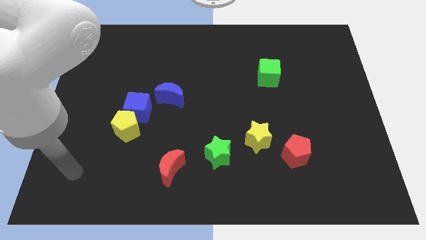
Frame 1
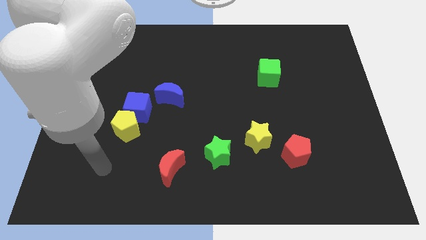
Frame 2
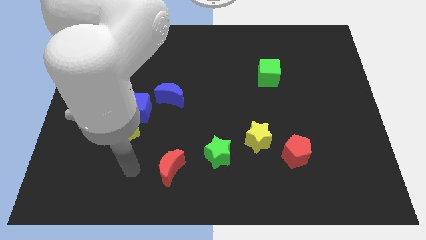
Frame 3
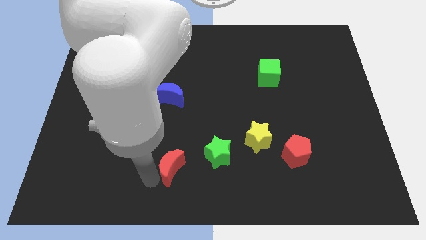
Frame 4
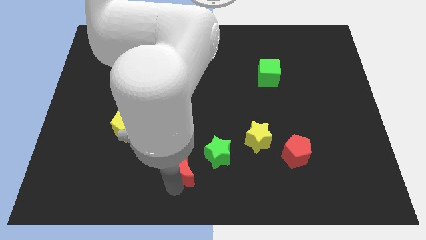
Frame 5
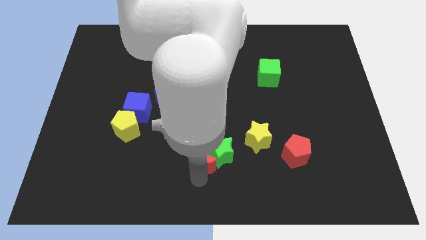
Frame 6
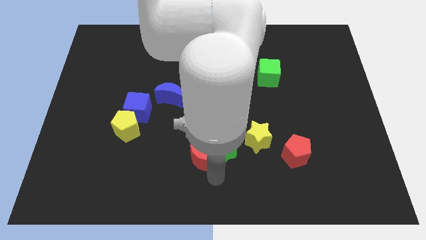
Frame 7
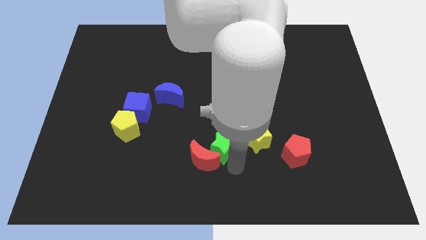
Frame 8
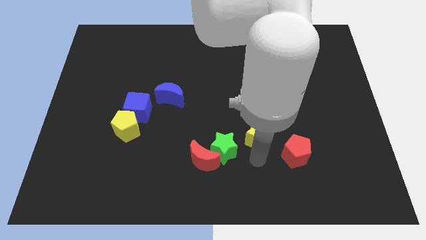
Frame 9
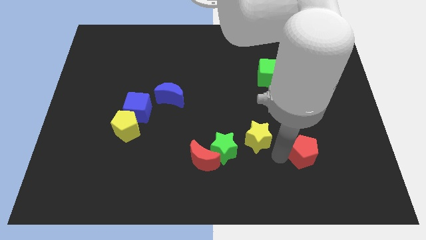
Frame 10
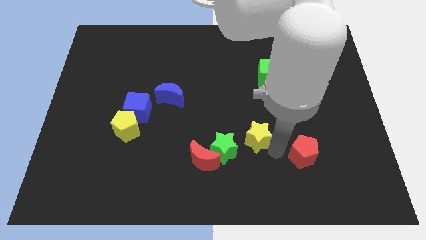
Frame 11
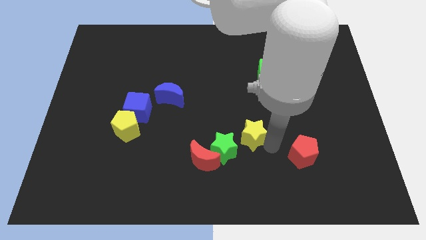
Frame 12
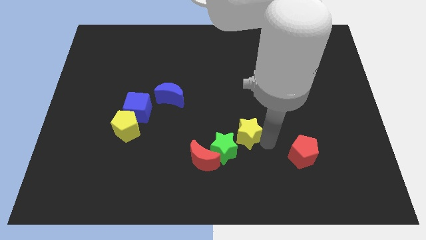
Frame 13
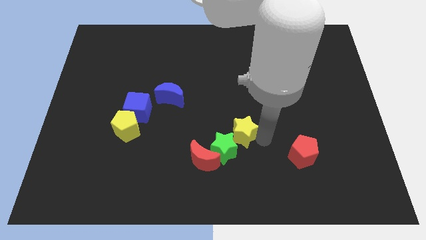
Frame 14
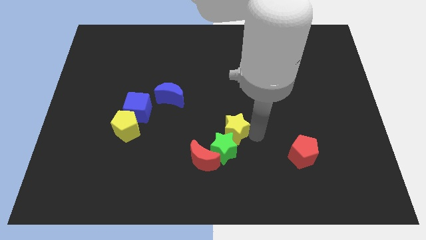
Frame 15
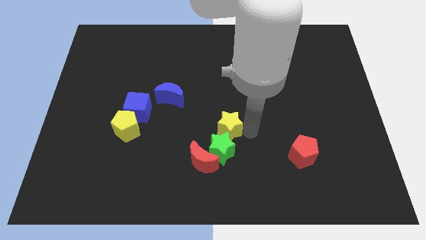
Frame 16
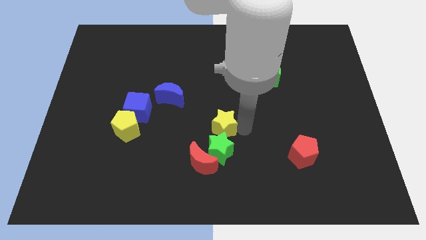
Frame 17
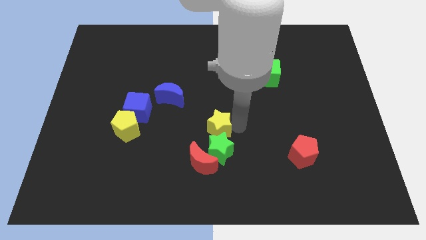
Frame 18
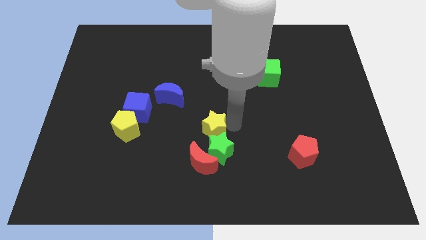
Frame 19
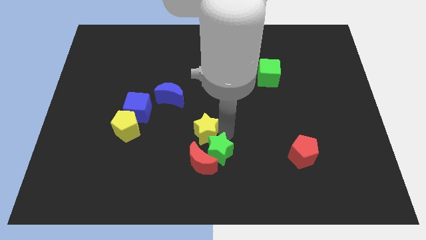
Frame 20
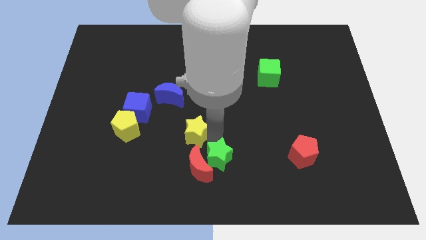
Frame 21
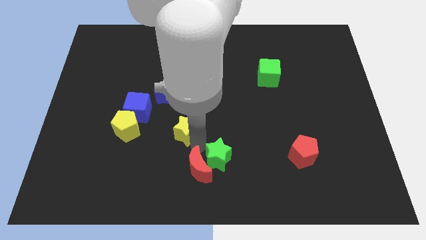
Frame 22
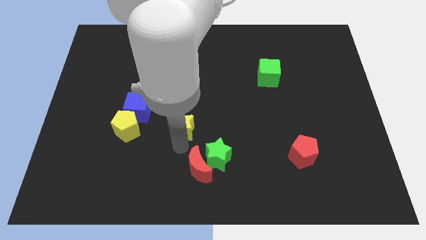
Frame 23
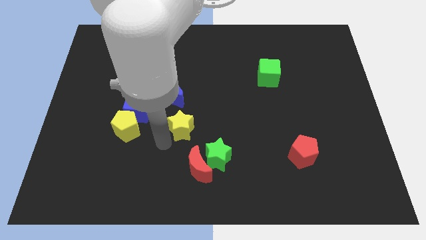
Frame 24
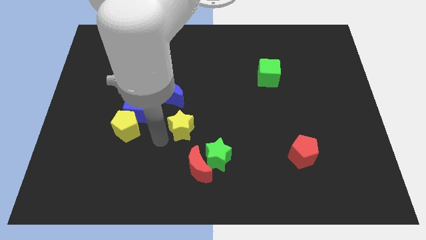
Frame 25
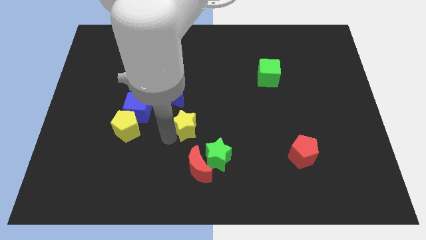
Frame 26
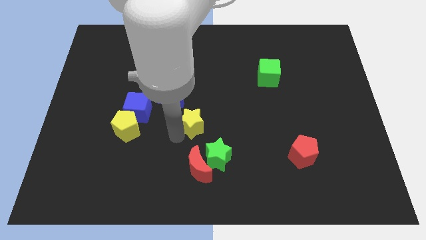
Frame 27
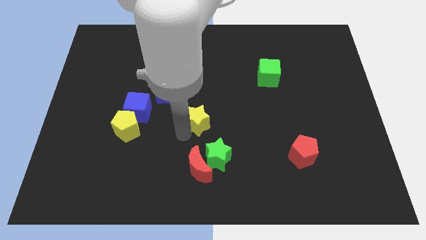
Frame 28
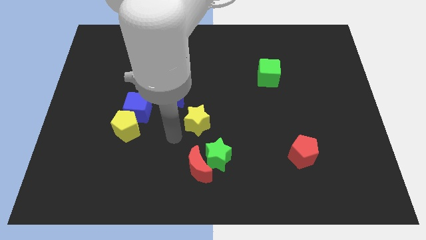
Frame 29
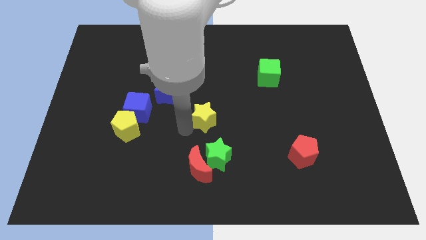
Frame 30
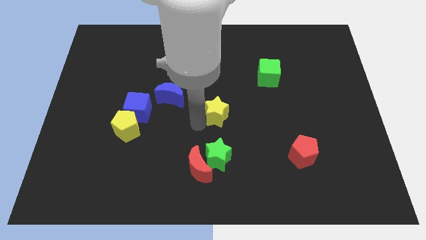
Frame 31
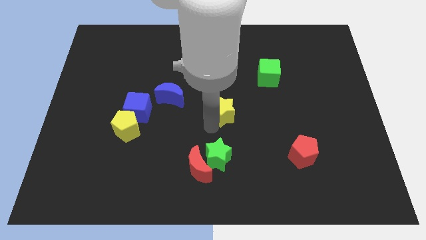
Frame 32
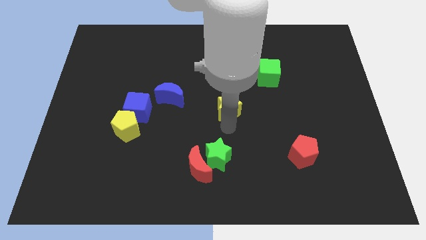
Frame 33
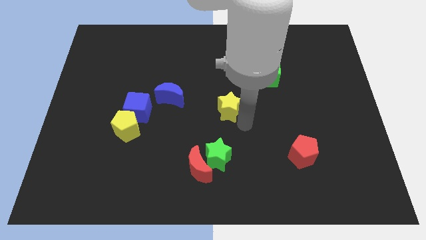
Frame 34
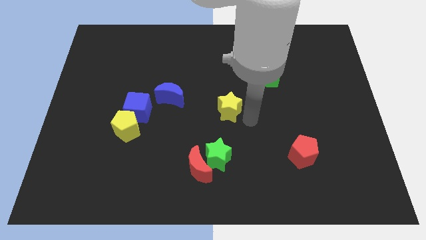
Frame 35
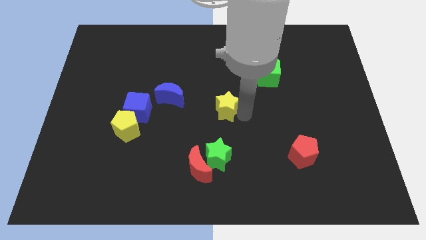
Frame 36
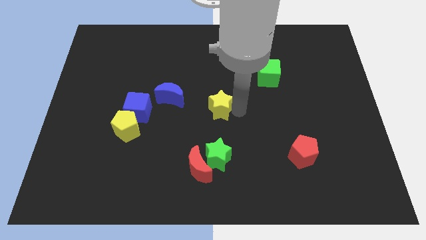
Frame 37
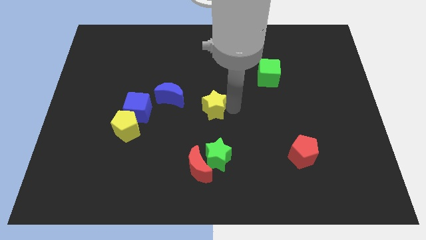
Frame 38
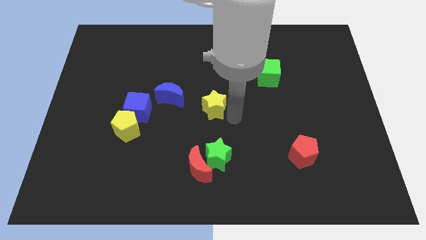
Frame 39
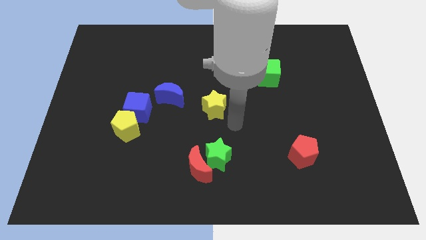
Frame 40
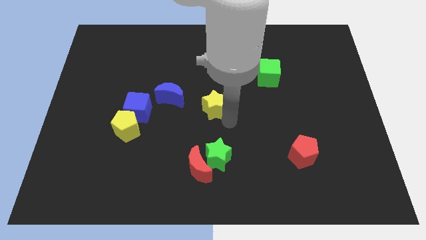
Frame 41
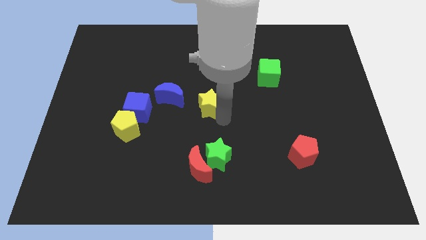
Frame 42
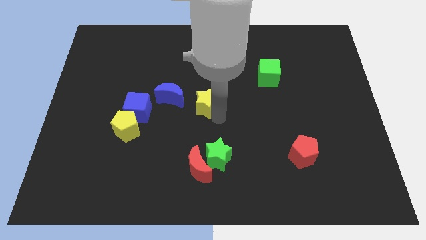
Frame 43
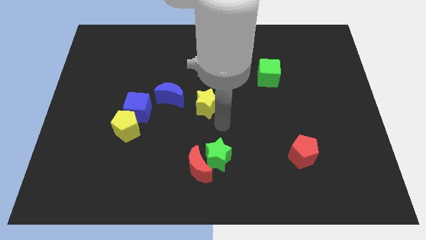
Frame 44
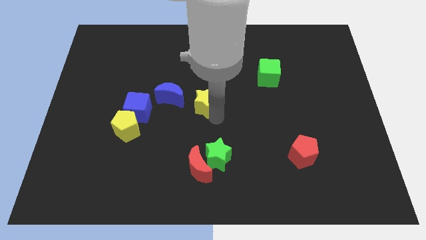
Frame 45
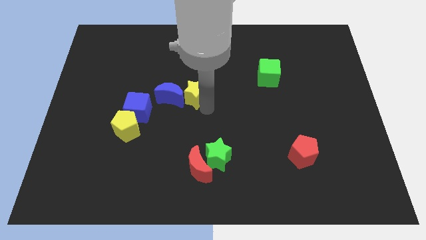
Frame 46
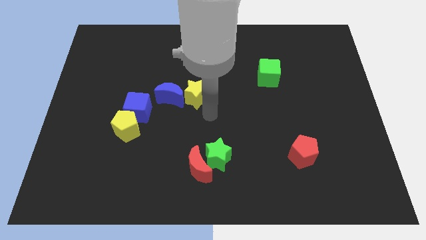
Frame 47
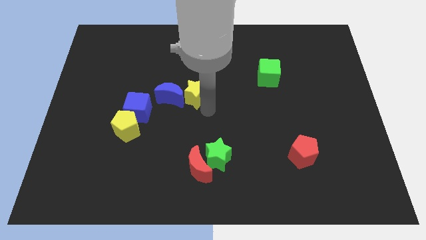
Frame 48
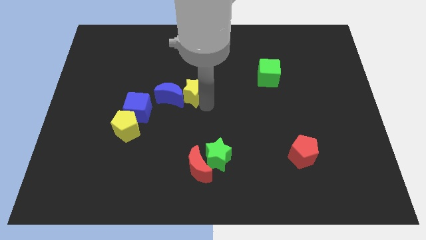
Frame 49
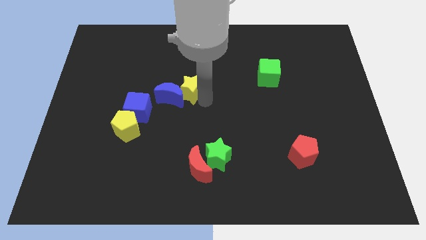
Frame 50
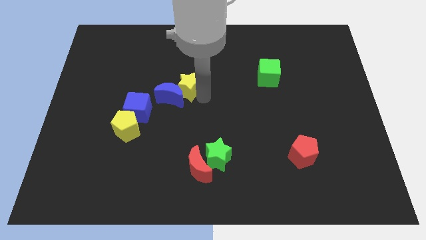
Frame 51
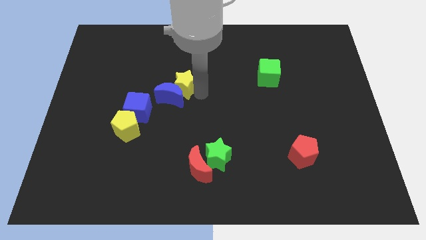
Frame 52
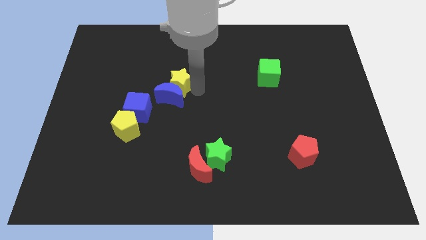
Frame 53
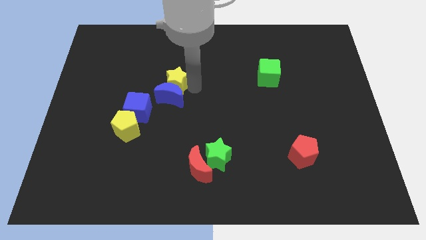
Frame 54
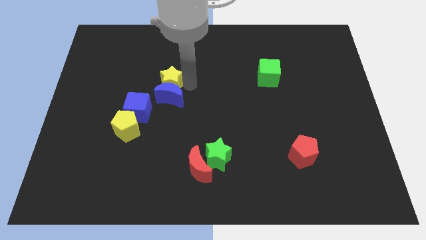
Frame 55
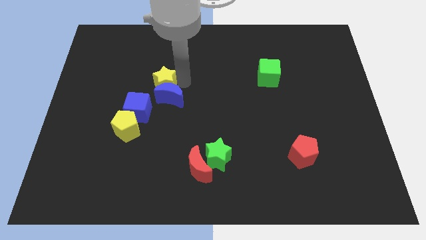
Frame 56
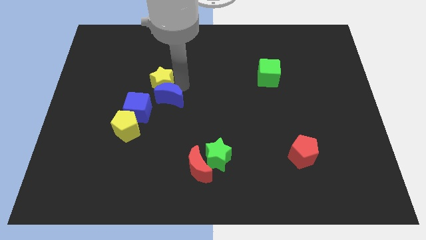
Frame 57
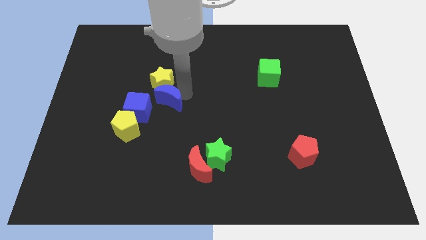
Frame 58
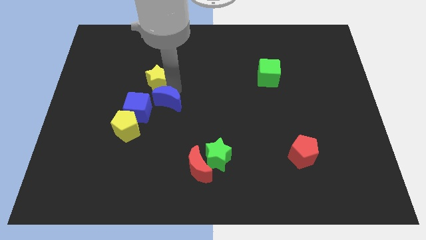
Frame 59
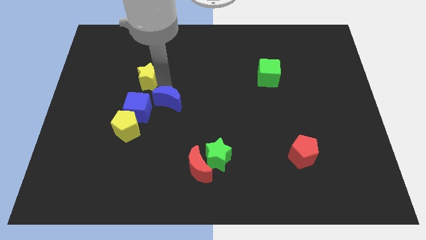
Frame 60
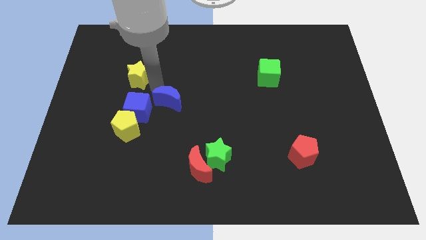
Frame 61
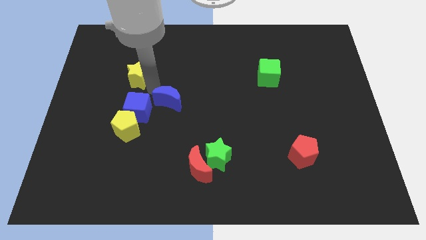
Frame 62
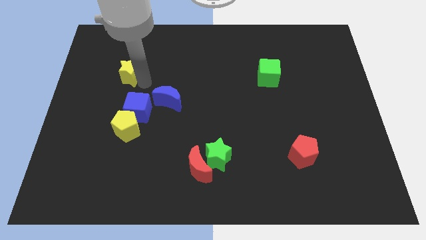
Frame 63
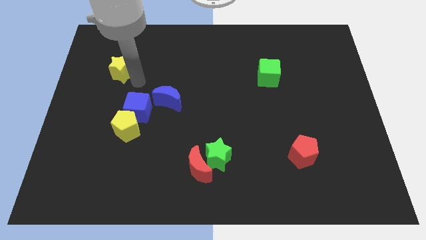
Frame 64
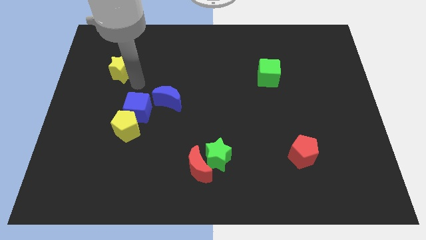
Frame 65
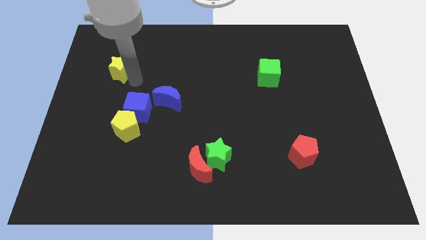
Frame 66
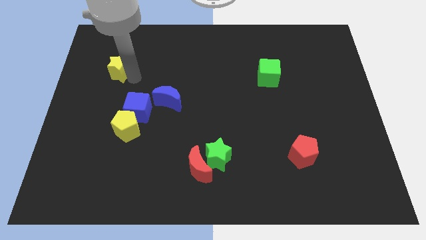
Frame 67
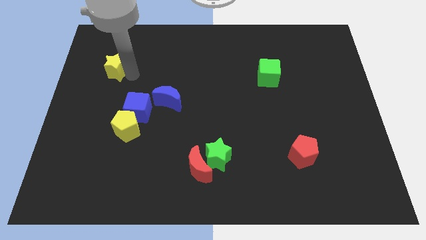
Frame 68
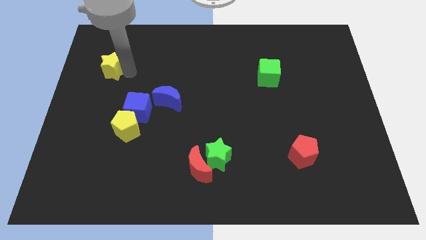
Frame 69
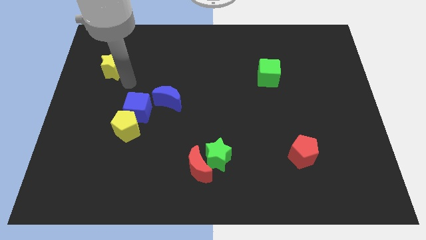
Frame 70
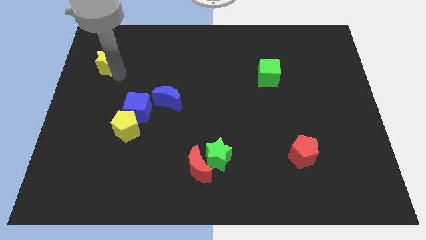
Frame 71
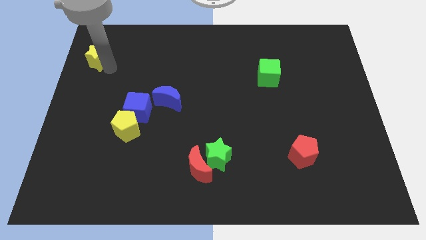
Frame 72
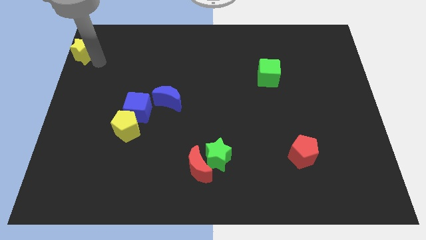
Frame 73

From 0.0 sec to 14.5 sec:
put the yellow star to the top left corner
